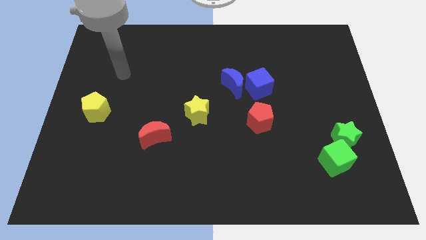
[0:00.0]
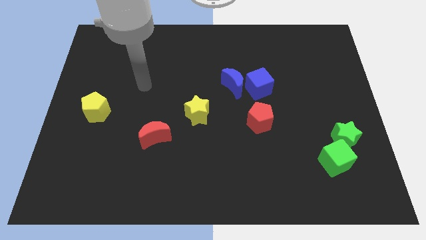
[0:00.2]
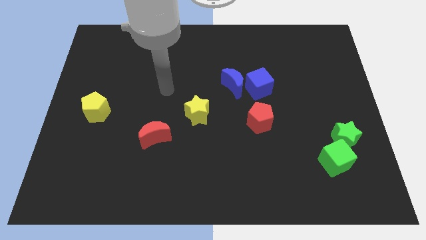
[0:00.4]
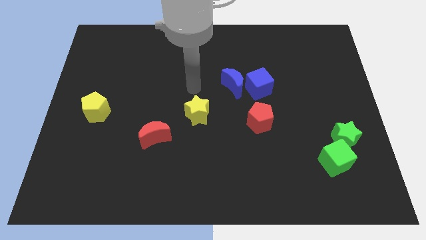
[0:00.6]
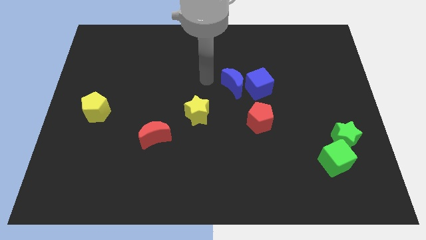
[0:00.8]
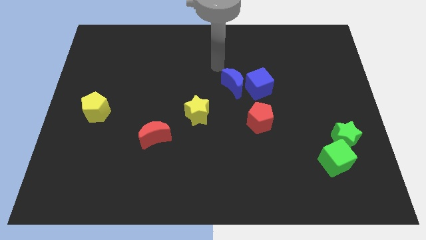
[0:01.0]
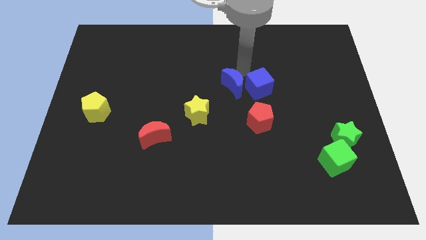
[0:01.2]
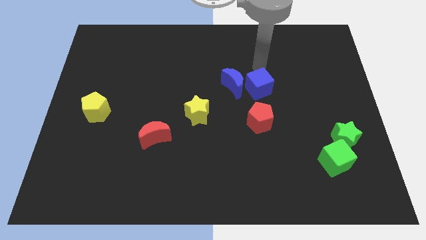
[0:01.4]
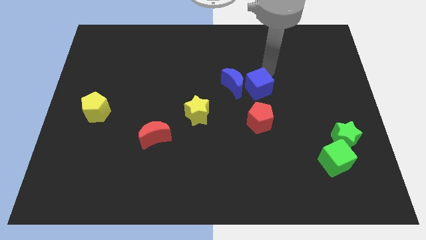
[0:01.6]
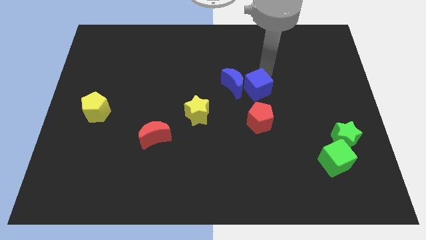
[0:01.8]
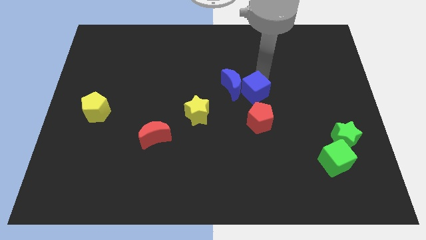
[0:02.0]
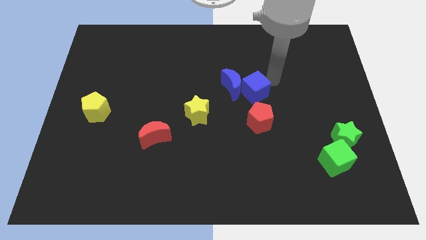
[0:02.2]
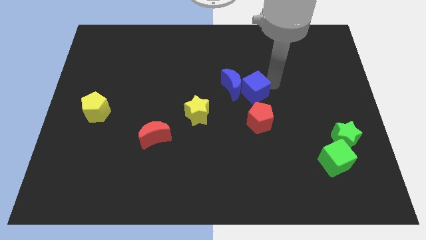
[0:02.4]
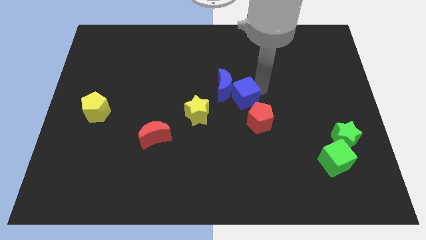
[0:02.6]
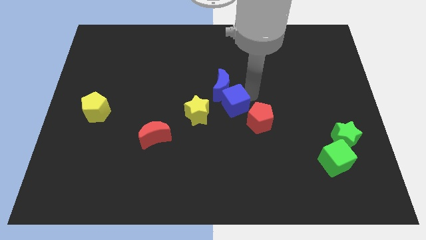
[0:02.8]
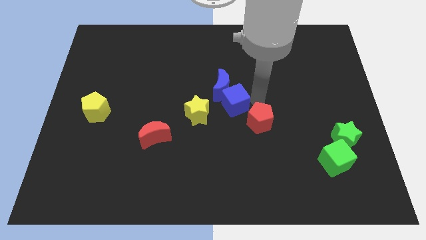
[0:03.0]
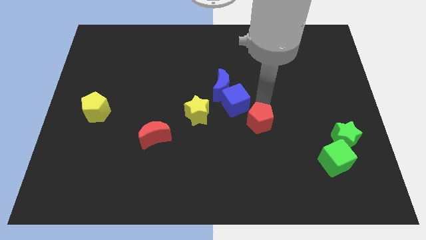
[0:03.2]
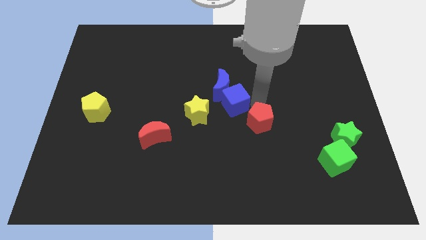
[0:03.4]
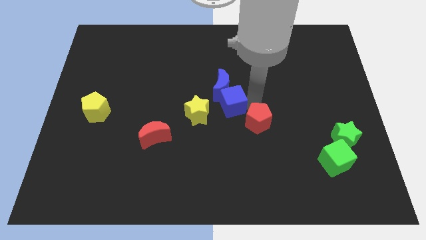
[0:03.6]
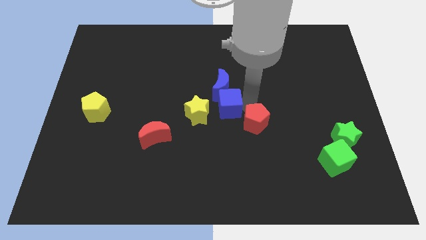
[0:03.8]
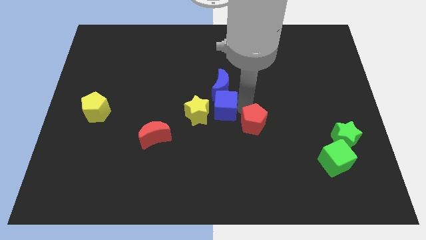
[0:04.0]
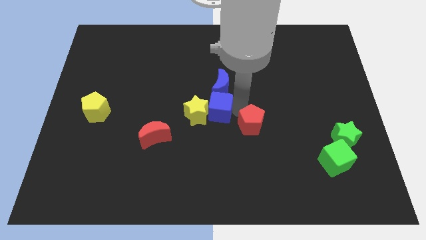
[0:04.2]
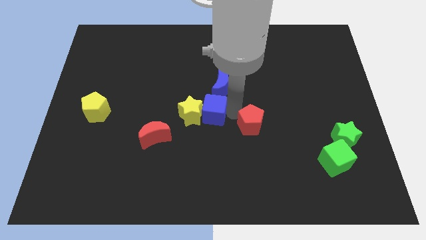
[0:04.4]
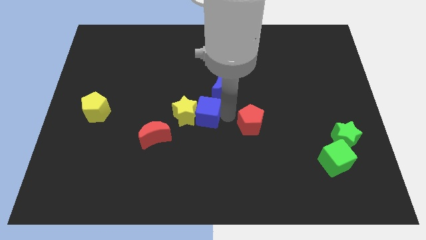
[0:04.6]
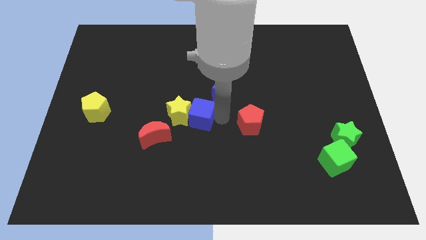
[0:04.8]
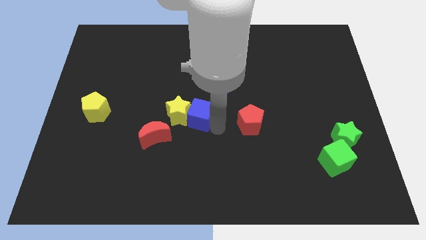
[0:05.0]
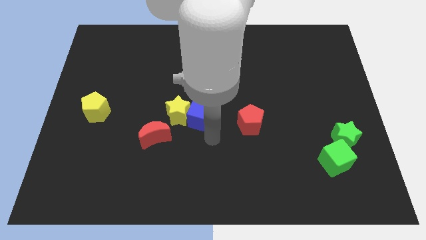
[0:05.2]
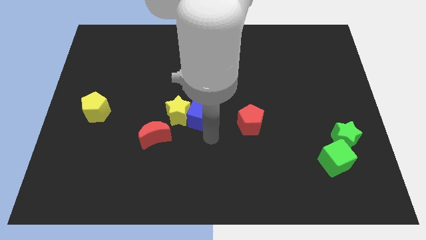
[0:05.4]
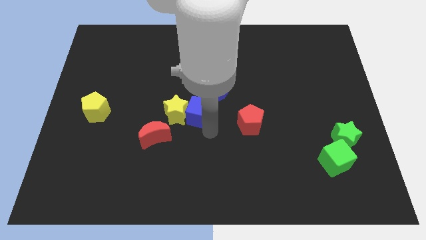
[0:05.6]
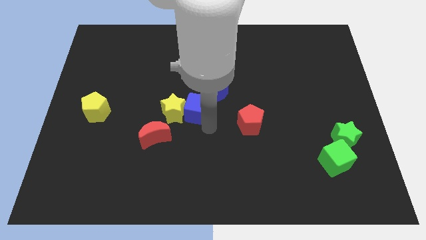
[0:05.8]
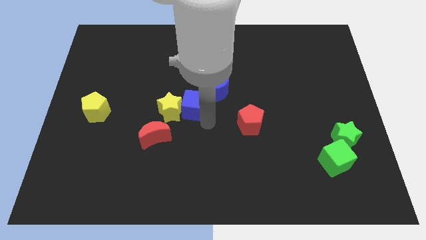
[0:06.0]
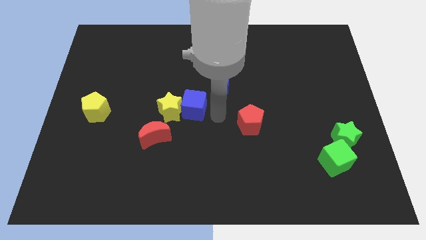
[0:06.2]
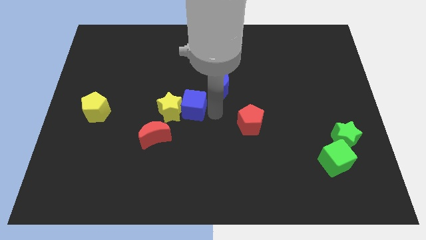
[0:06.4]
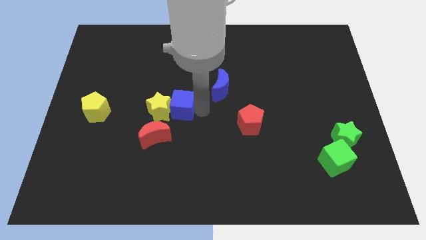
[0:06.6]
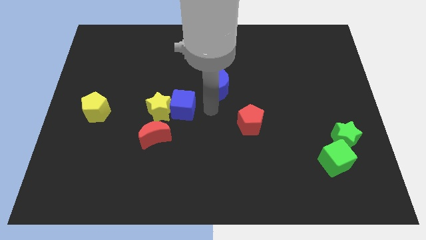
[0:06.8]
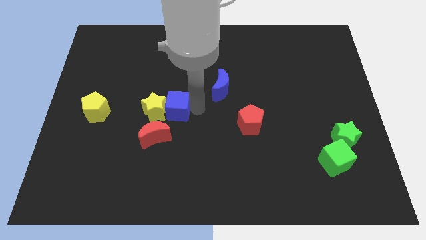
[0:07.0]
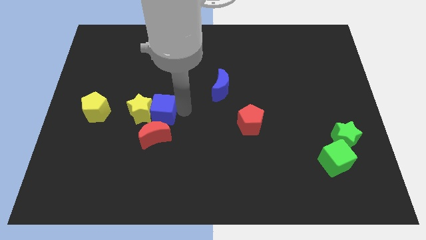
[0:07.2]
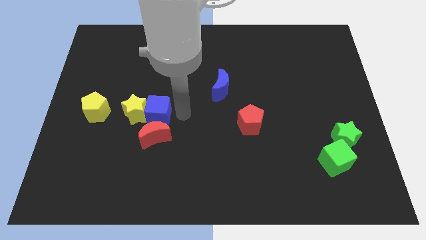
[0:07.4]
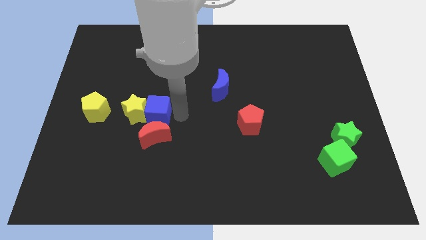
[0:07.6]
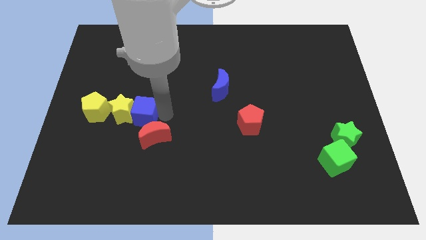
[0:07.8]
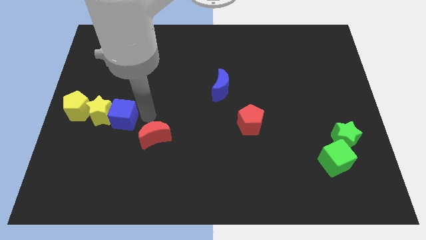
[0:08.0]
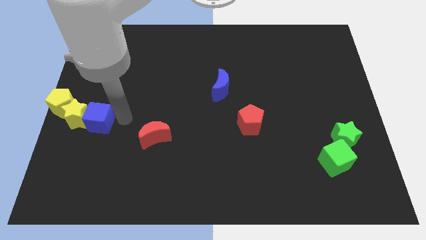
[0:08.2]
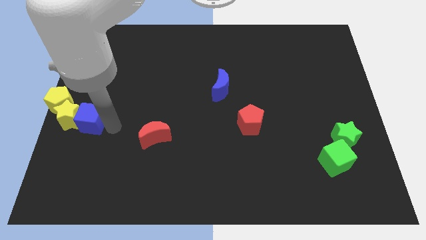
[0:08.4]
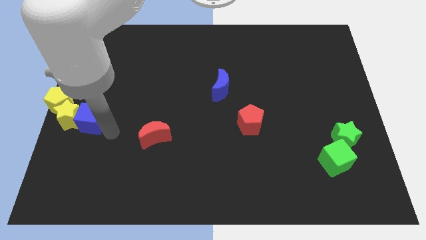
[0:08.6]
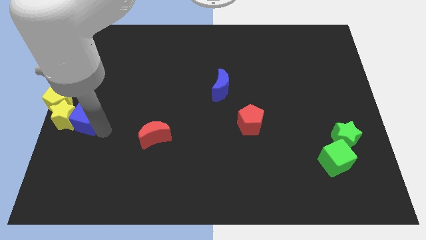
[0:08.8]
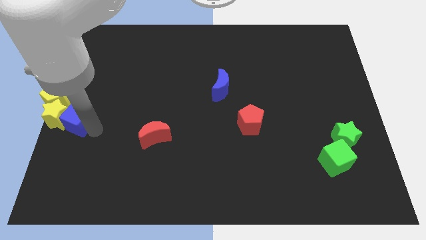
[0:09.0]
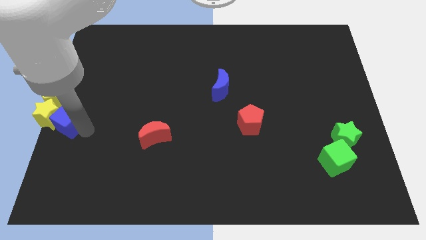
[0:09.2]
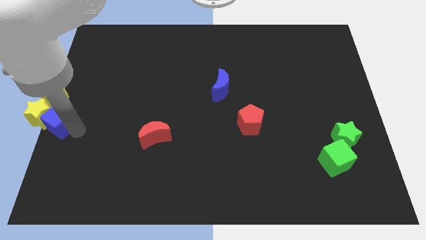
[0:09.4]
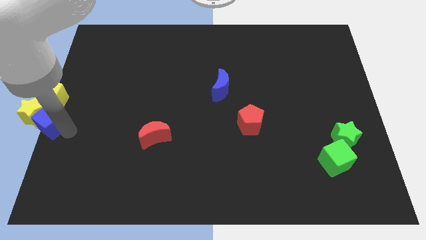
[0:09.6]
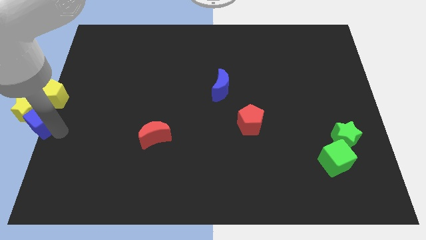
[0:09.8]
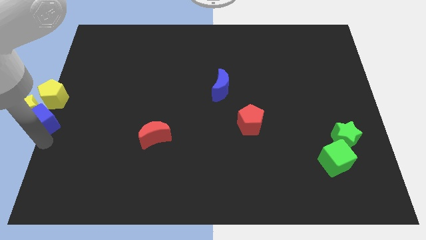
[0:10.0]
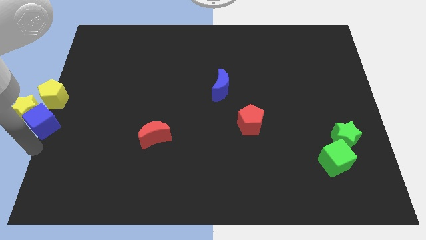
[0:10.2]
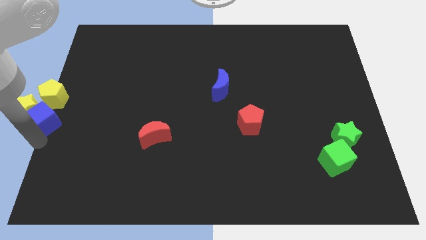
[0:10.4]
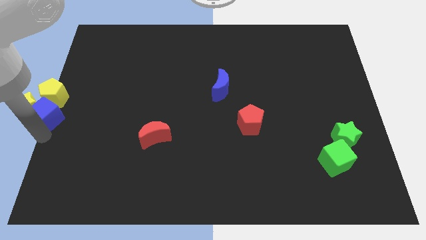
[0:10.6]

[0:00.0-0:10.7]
slide the blue cube towards the yellow pentagon

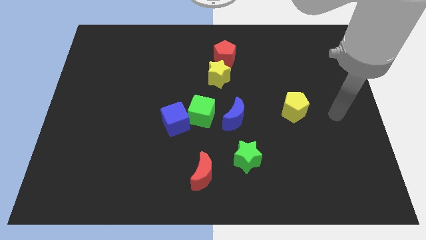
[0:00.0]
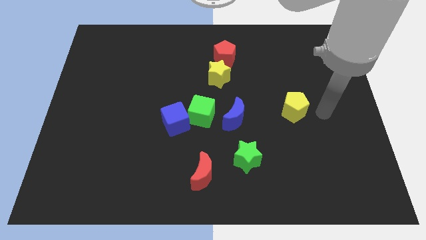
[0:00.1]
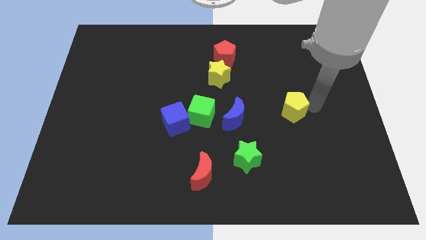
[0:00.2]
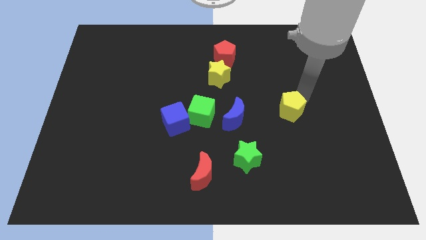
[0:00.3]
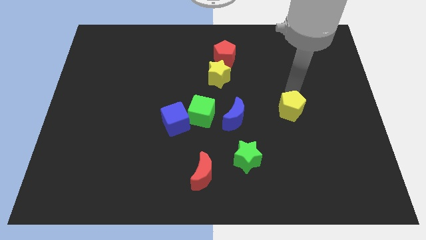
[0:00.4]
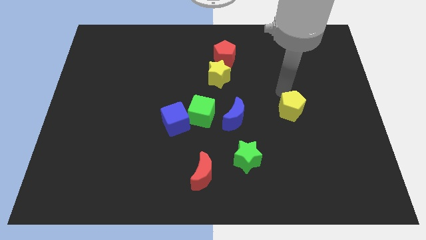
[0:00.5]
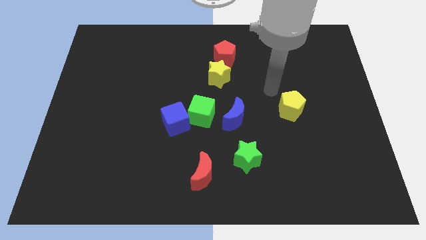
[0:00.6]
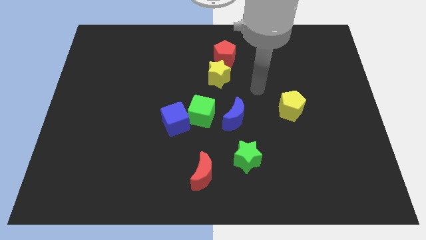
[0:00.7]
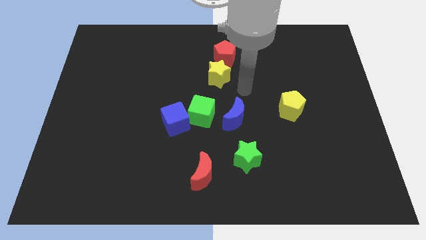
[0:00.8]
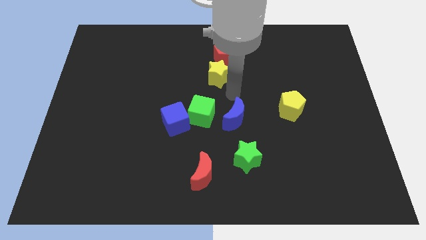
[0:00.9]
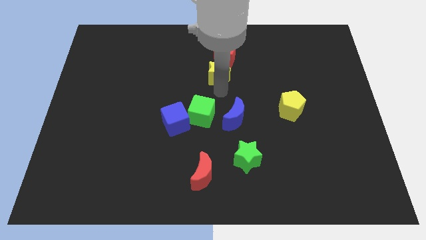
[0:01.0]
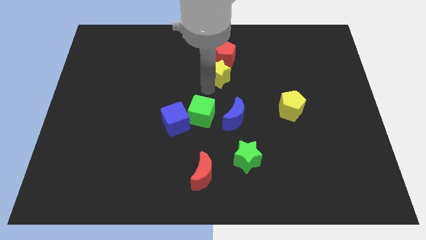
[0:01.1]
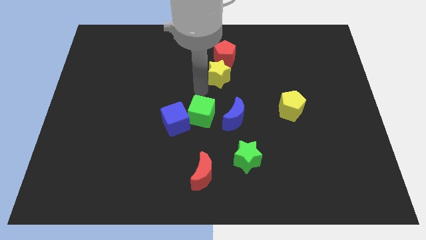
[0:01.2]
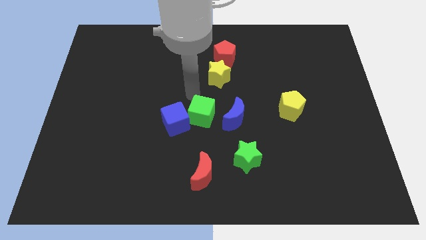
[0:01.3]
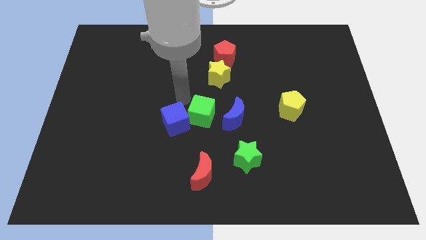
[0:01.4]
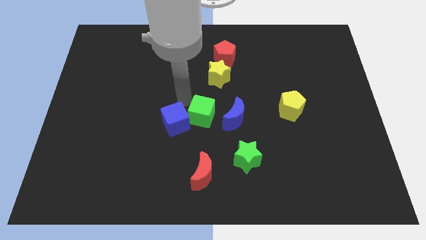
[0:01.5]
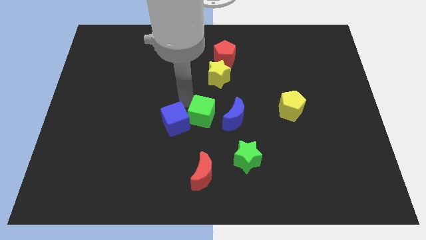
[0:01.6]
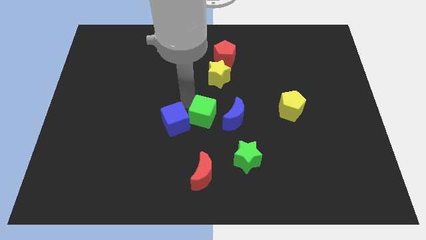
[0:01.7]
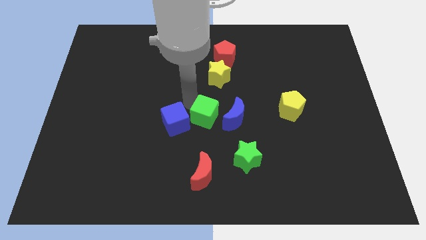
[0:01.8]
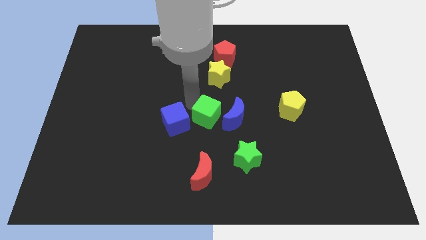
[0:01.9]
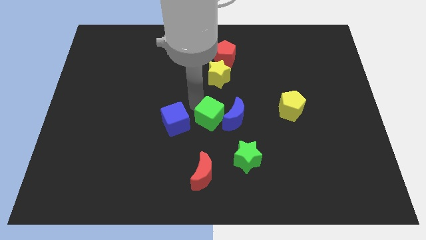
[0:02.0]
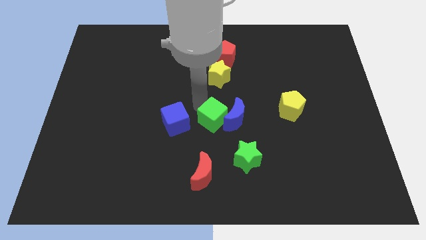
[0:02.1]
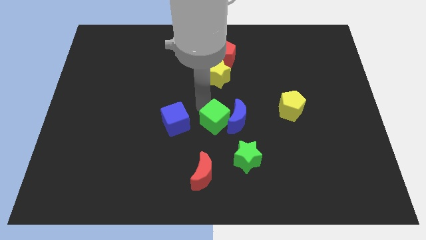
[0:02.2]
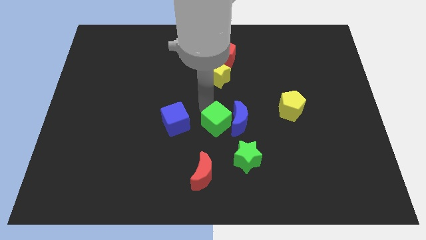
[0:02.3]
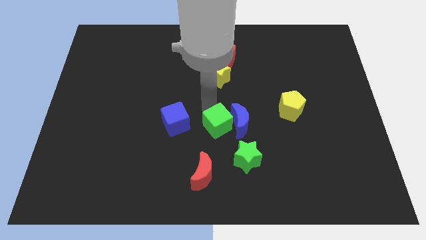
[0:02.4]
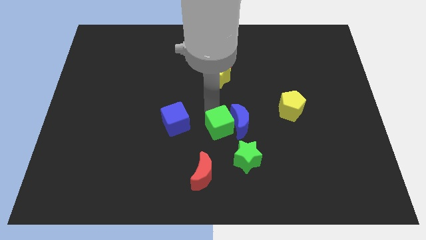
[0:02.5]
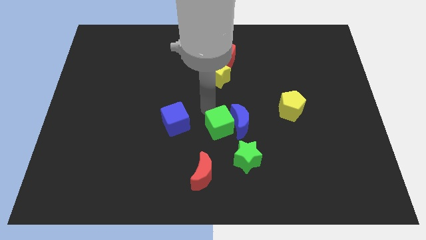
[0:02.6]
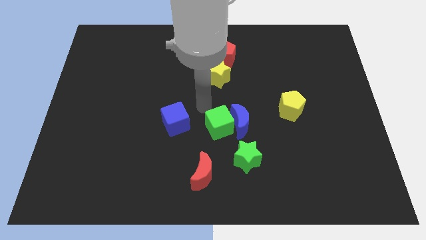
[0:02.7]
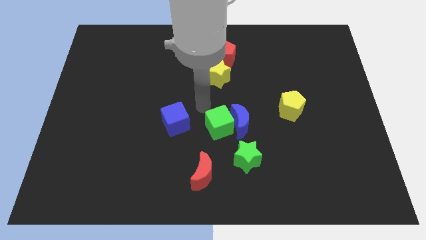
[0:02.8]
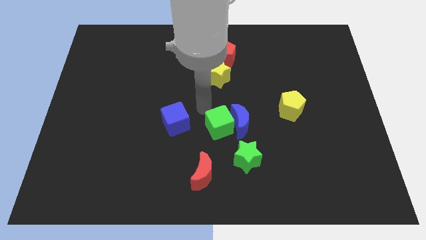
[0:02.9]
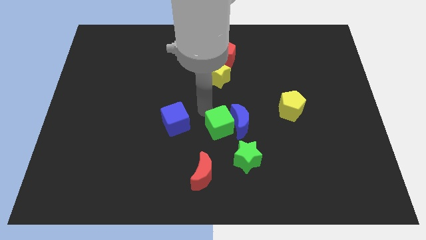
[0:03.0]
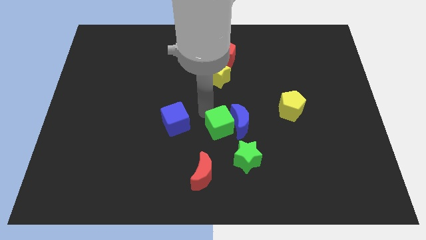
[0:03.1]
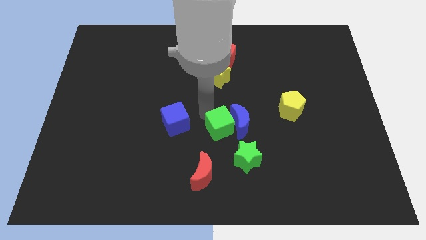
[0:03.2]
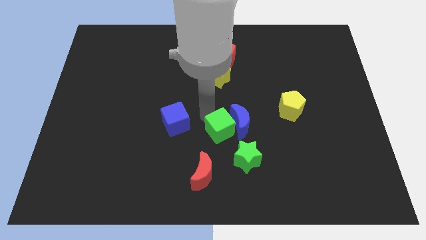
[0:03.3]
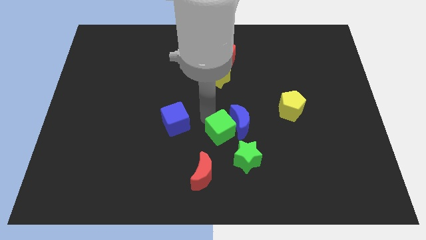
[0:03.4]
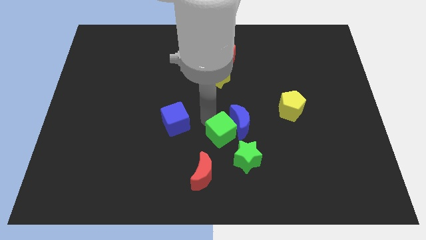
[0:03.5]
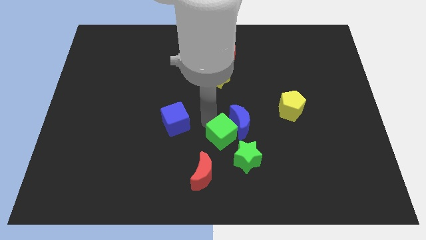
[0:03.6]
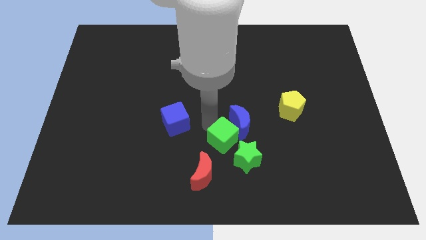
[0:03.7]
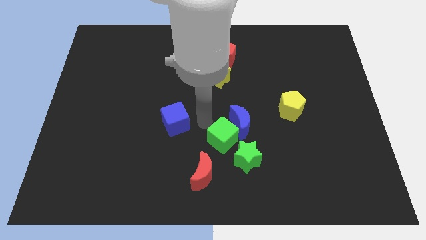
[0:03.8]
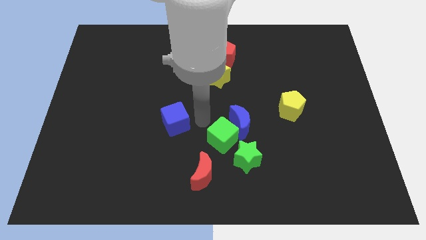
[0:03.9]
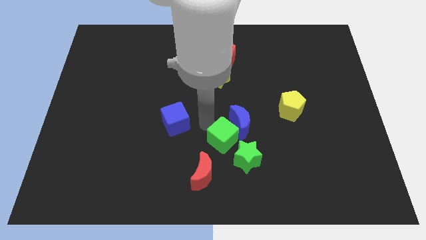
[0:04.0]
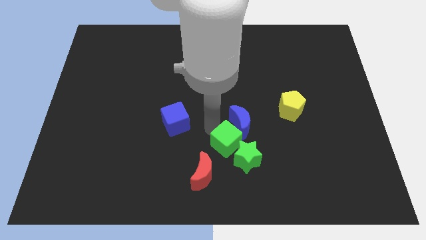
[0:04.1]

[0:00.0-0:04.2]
put the green cube towards the green star
